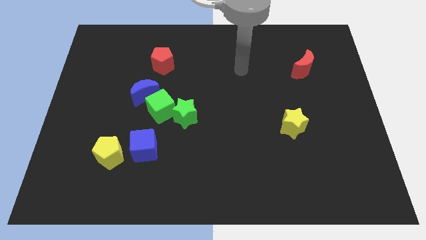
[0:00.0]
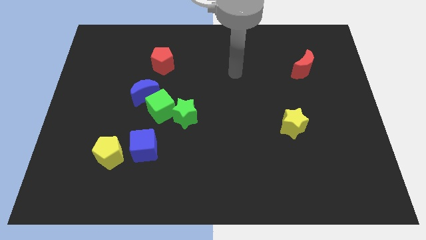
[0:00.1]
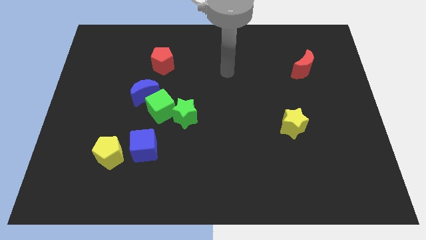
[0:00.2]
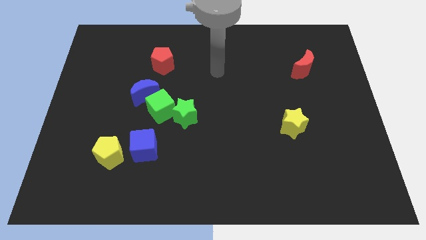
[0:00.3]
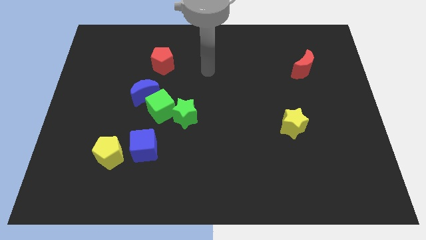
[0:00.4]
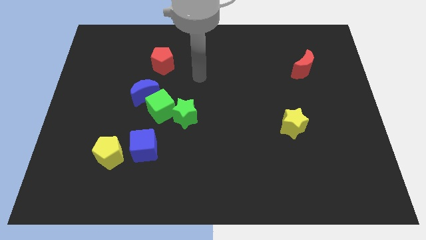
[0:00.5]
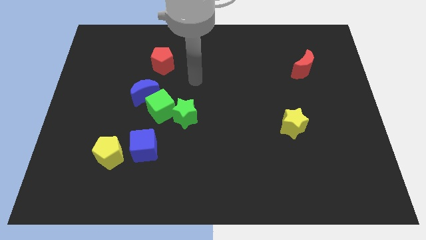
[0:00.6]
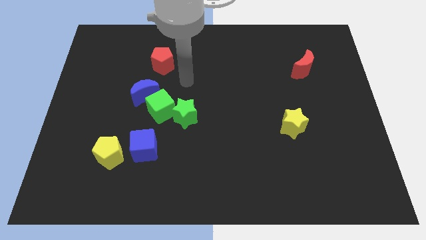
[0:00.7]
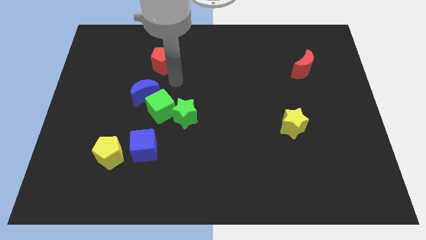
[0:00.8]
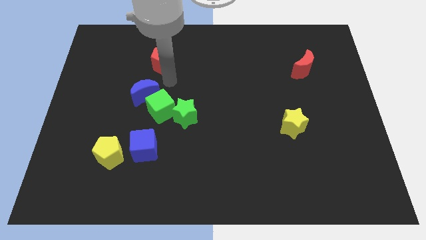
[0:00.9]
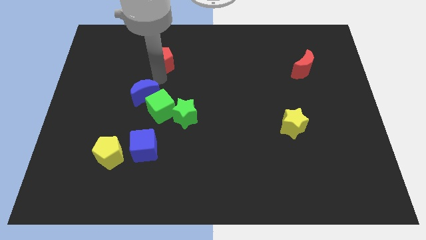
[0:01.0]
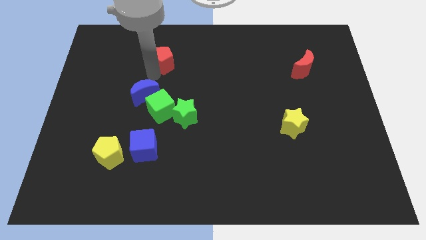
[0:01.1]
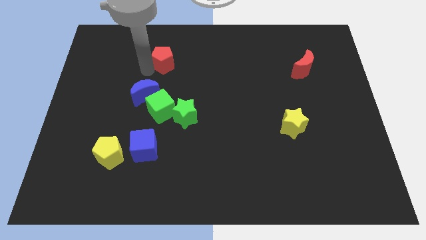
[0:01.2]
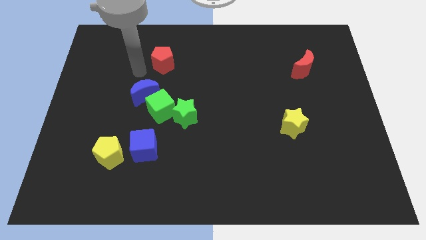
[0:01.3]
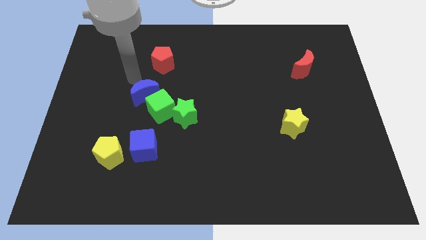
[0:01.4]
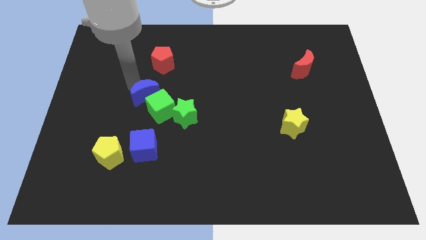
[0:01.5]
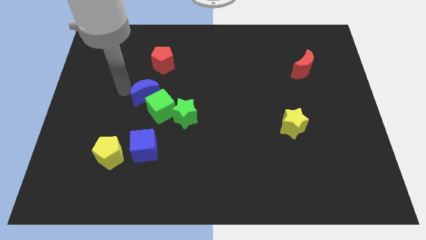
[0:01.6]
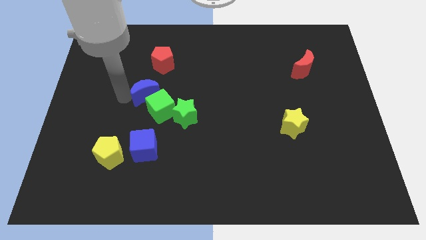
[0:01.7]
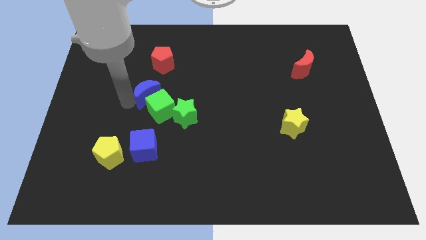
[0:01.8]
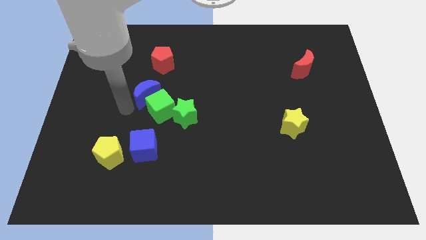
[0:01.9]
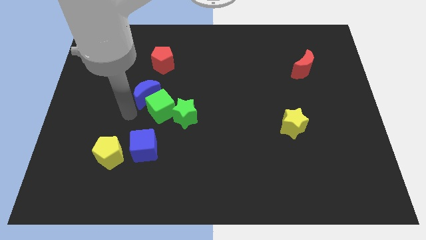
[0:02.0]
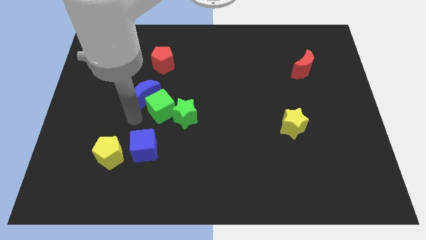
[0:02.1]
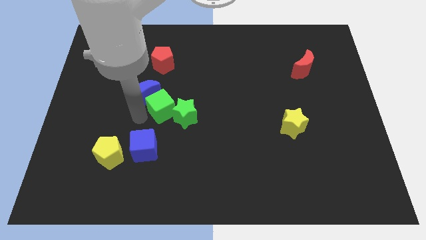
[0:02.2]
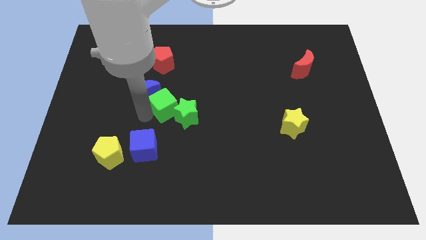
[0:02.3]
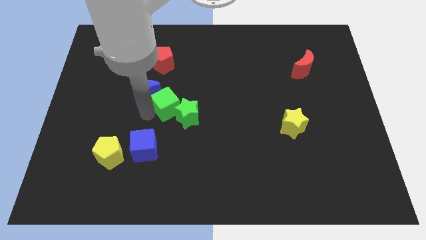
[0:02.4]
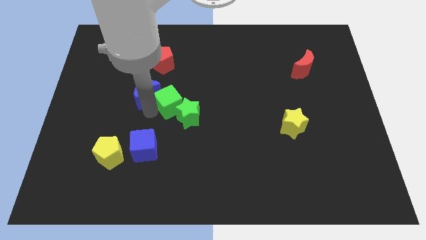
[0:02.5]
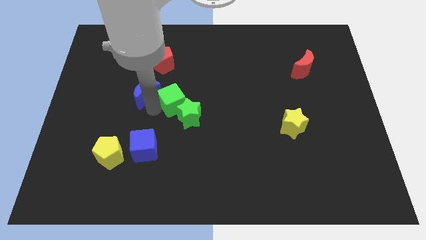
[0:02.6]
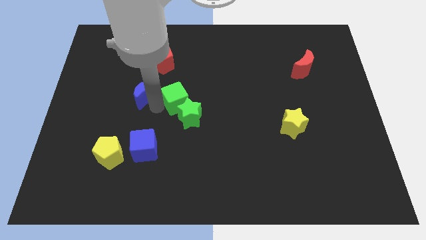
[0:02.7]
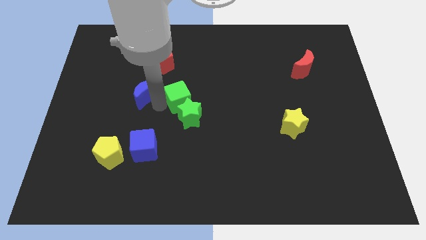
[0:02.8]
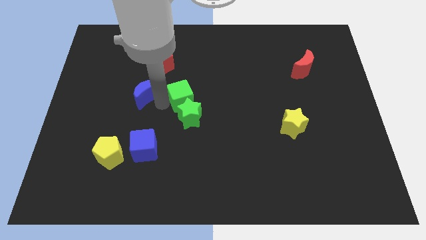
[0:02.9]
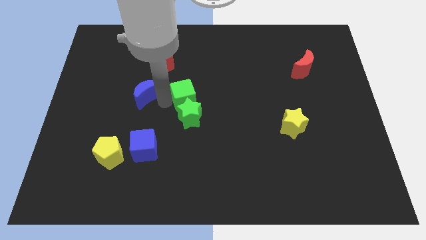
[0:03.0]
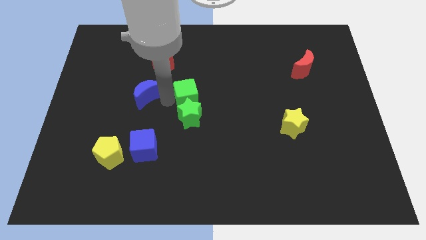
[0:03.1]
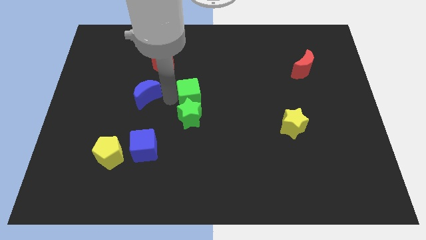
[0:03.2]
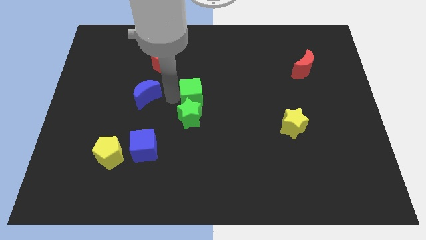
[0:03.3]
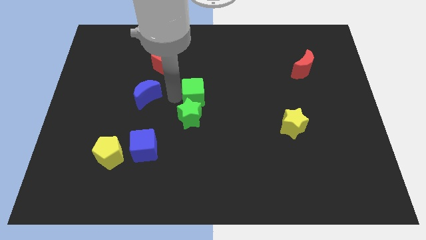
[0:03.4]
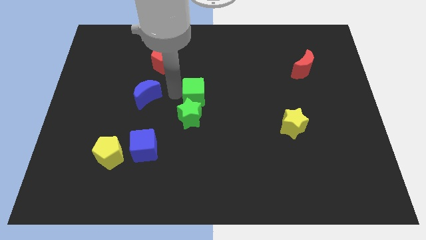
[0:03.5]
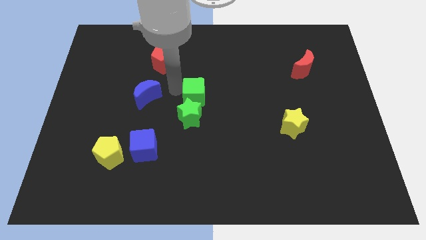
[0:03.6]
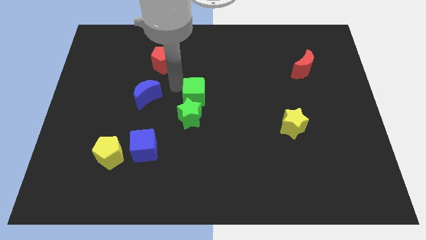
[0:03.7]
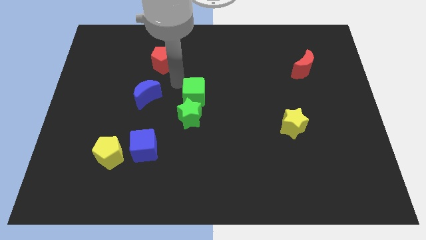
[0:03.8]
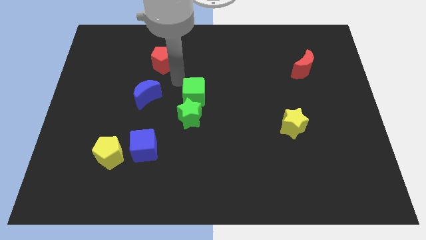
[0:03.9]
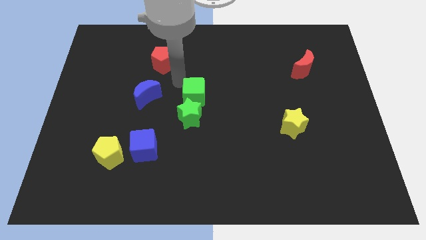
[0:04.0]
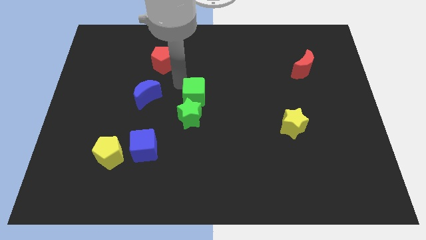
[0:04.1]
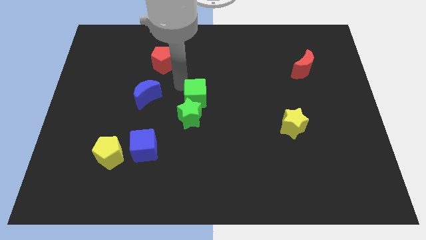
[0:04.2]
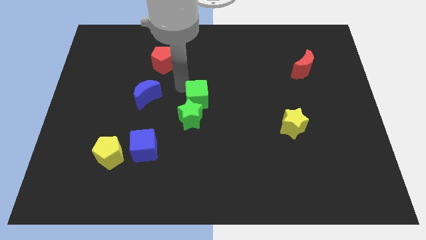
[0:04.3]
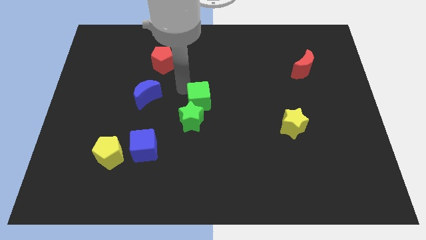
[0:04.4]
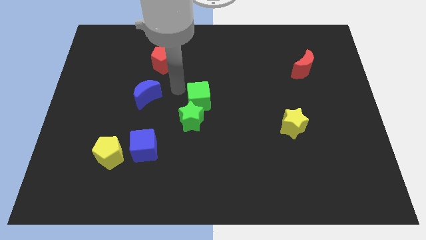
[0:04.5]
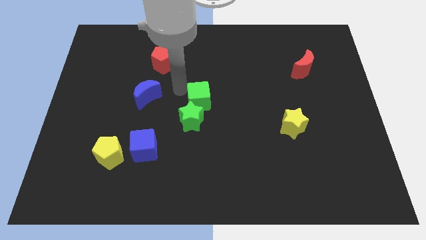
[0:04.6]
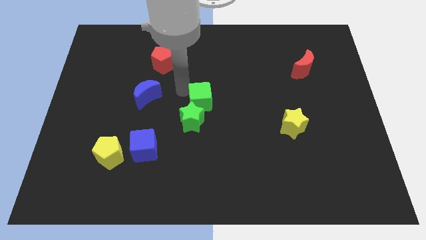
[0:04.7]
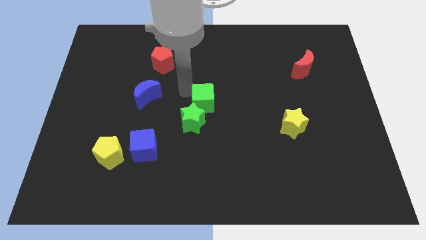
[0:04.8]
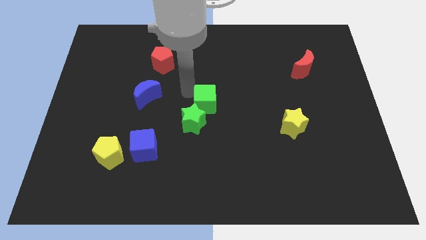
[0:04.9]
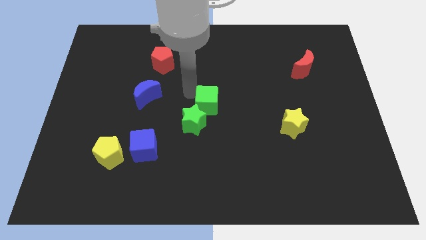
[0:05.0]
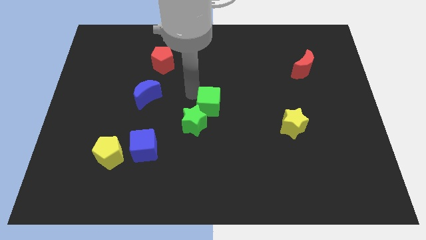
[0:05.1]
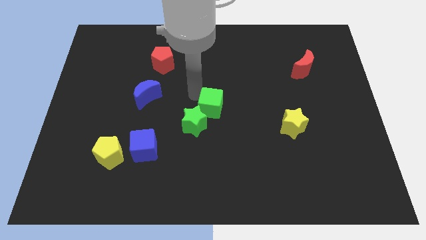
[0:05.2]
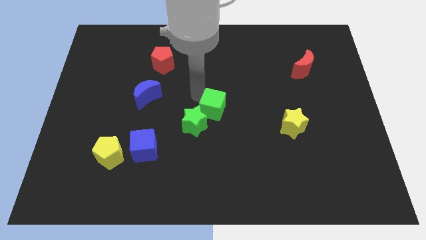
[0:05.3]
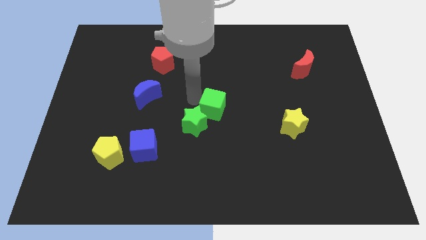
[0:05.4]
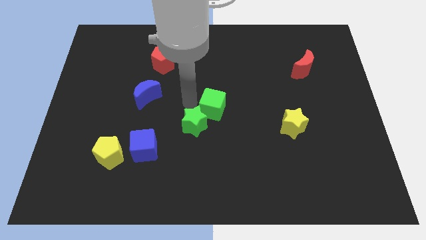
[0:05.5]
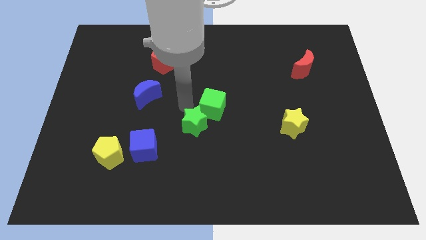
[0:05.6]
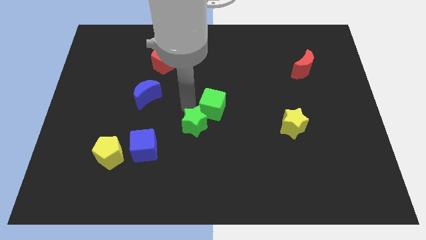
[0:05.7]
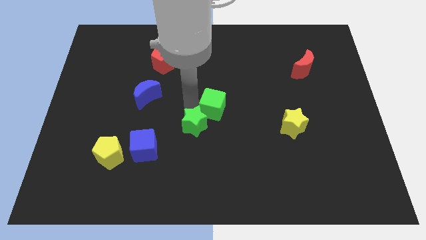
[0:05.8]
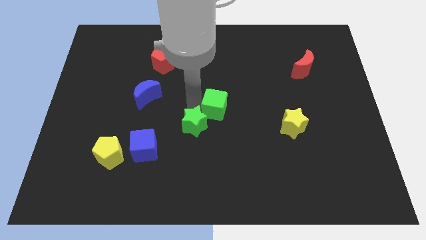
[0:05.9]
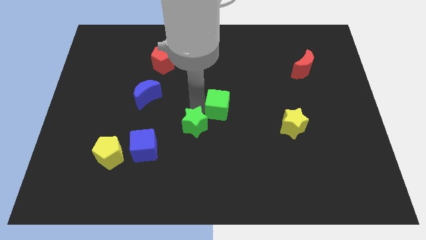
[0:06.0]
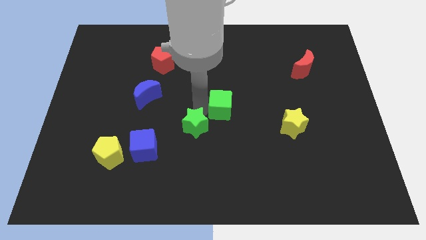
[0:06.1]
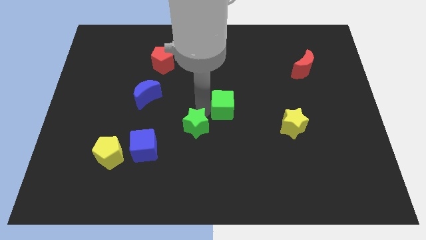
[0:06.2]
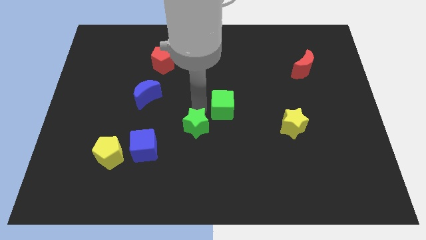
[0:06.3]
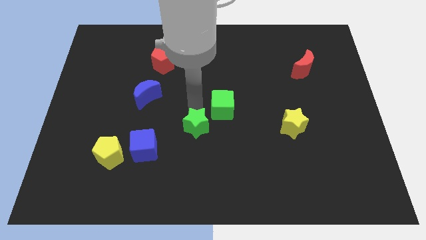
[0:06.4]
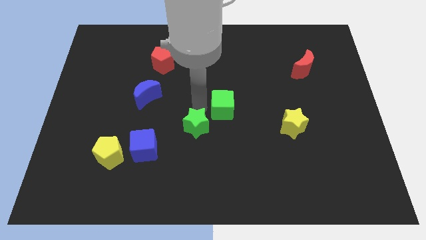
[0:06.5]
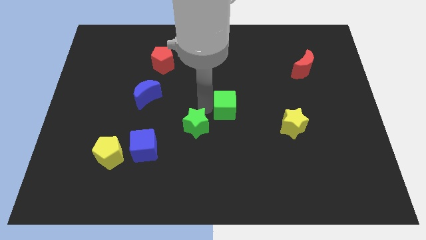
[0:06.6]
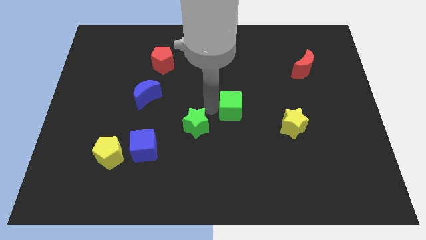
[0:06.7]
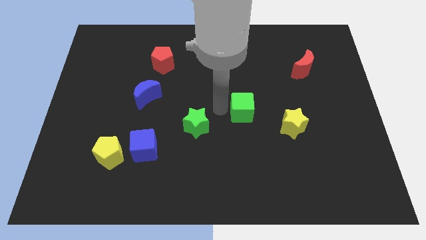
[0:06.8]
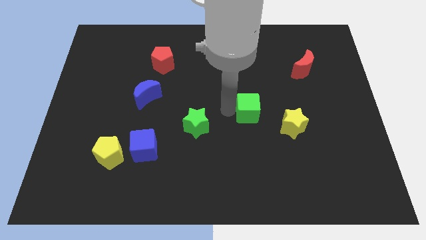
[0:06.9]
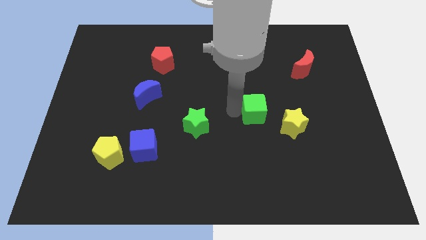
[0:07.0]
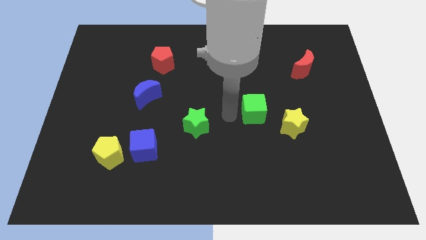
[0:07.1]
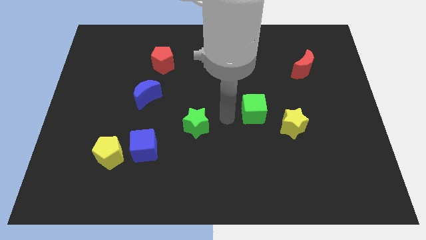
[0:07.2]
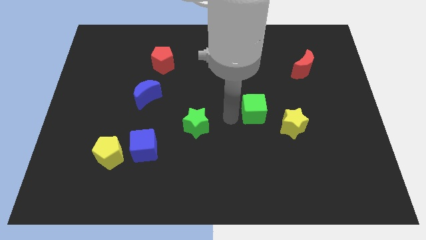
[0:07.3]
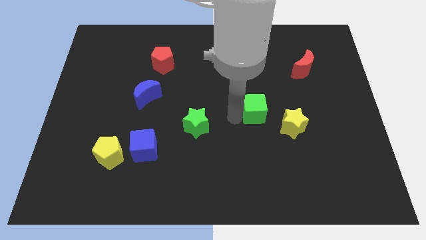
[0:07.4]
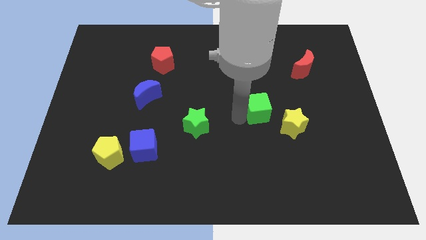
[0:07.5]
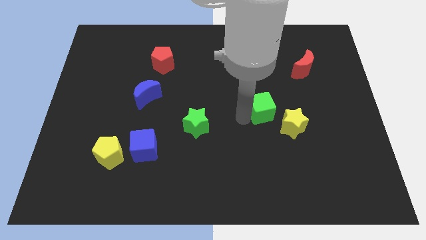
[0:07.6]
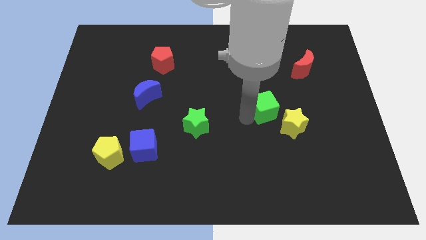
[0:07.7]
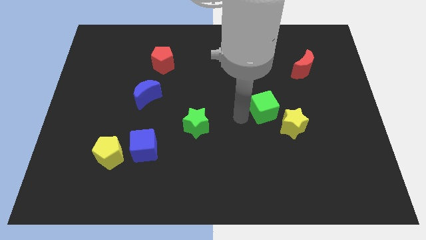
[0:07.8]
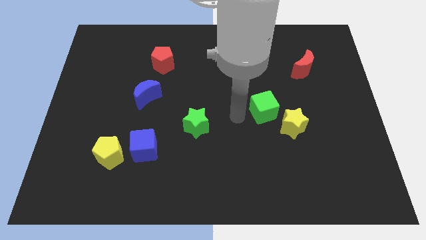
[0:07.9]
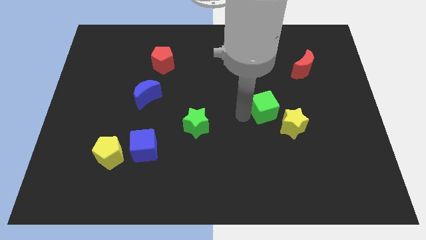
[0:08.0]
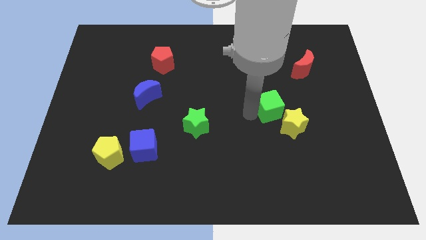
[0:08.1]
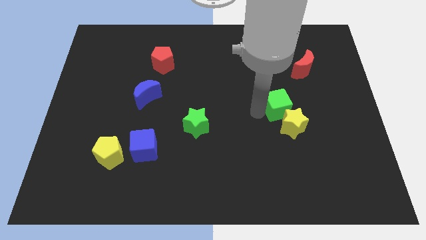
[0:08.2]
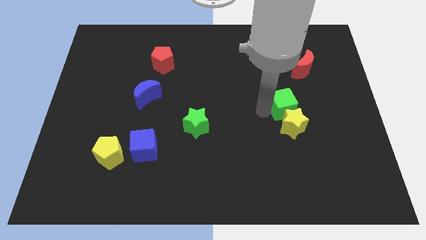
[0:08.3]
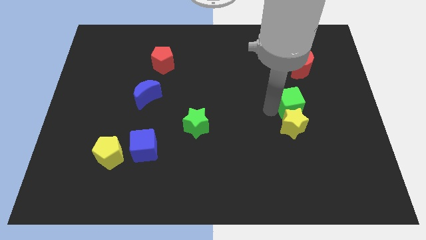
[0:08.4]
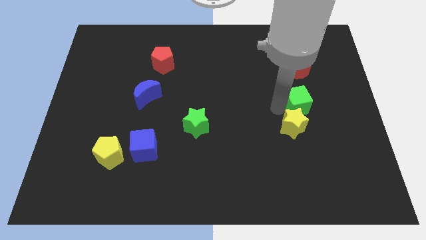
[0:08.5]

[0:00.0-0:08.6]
move the green cube to the bottom of the red moon
